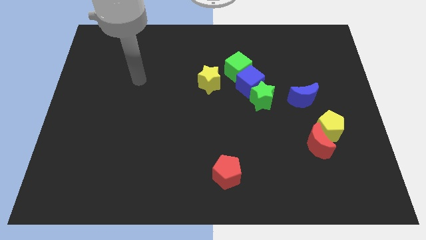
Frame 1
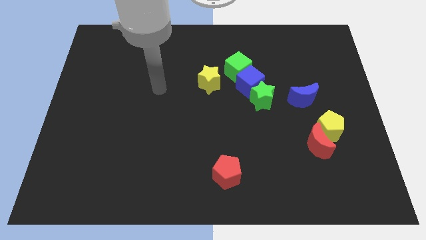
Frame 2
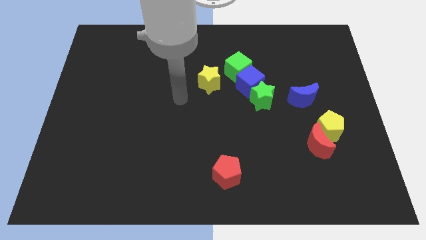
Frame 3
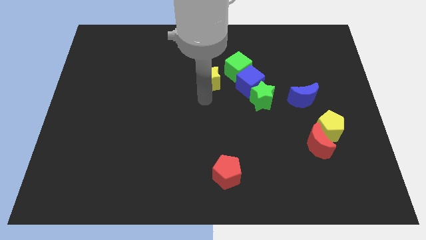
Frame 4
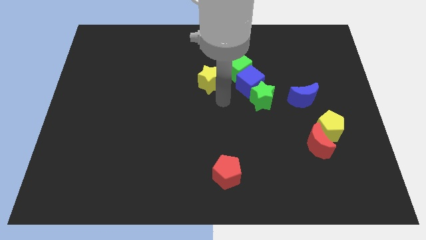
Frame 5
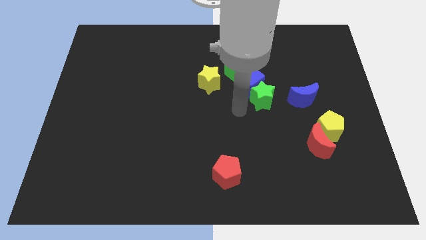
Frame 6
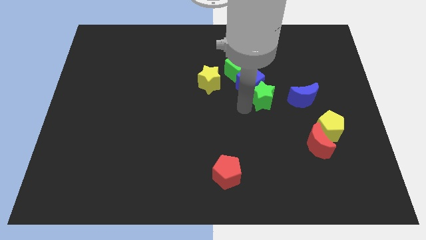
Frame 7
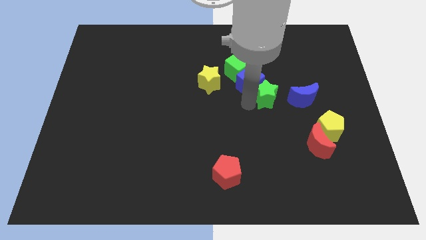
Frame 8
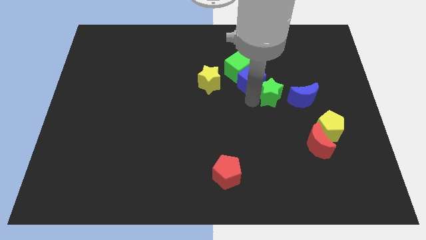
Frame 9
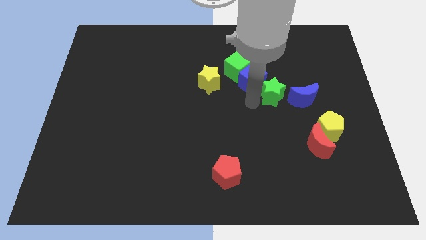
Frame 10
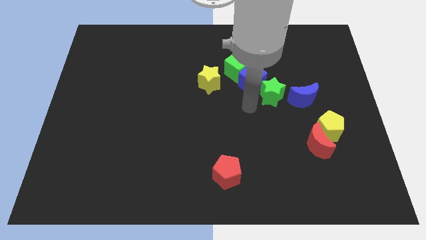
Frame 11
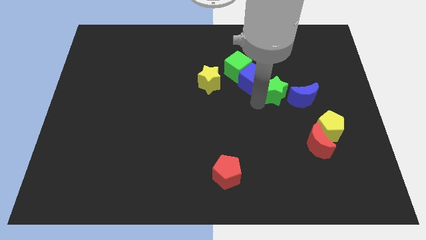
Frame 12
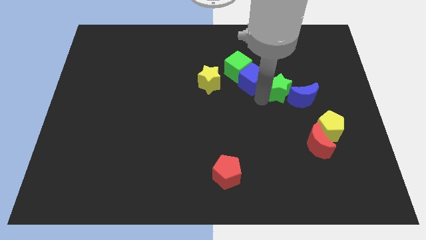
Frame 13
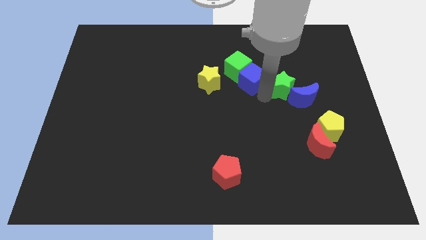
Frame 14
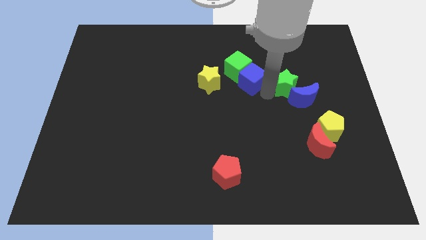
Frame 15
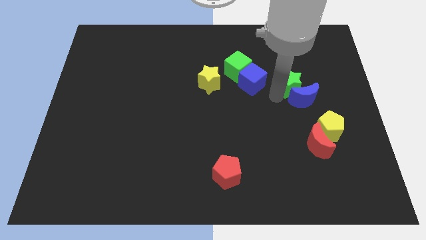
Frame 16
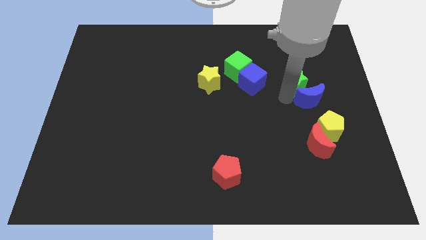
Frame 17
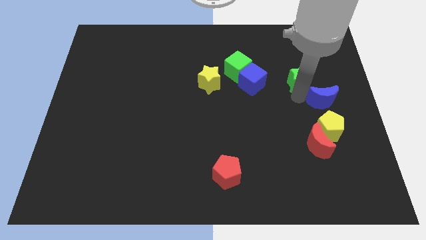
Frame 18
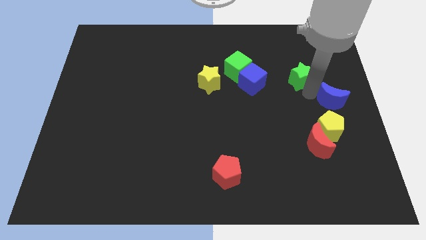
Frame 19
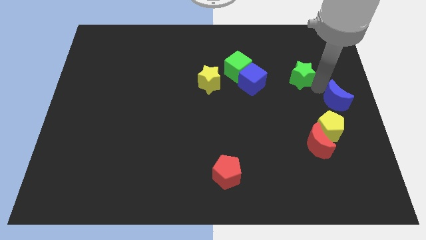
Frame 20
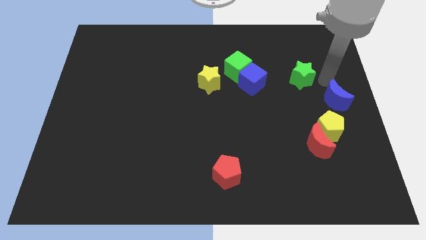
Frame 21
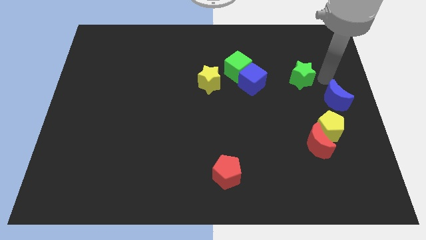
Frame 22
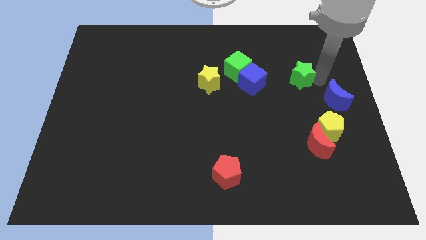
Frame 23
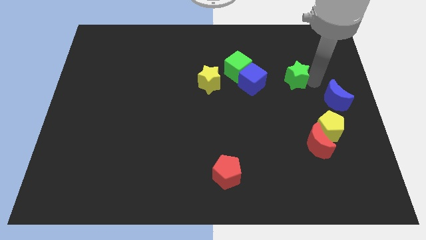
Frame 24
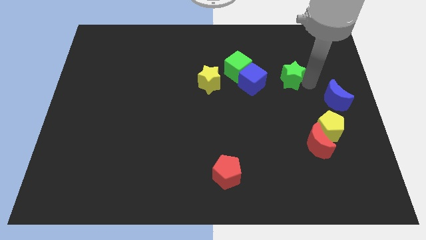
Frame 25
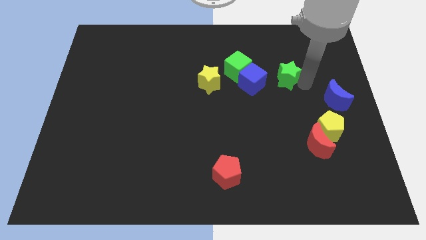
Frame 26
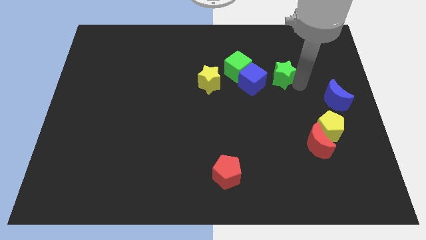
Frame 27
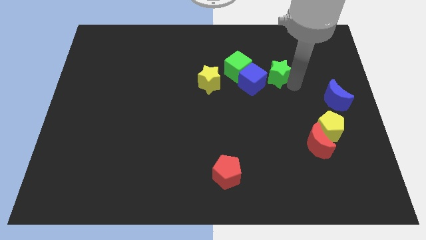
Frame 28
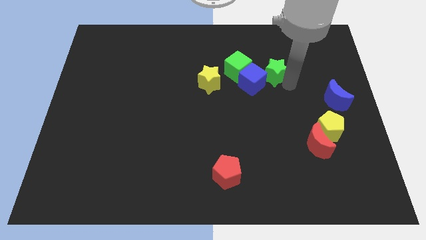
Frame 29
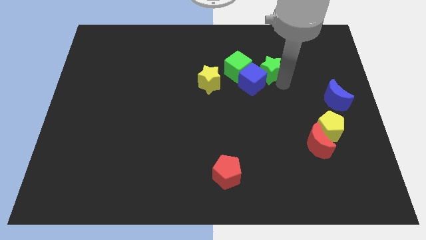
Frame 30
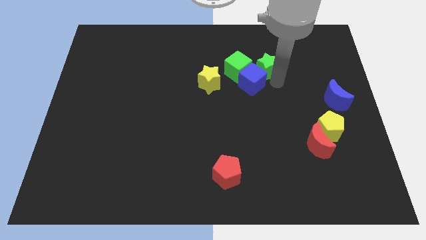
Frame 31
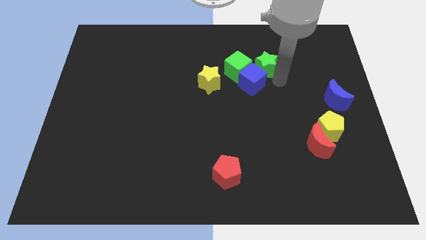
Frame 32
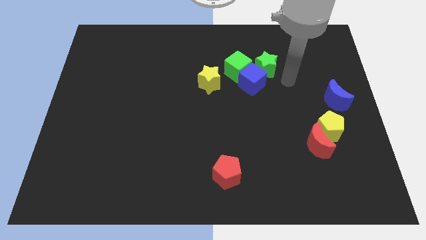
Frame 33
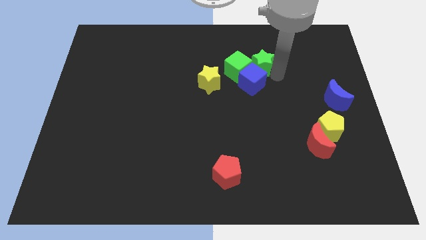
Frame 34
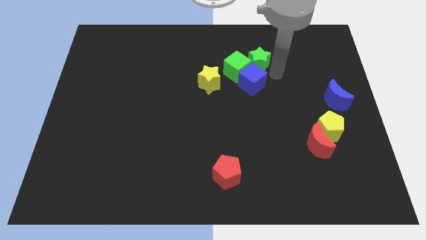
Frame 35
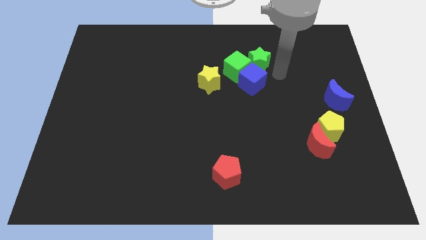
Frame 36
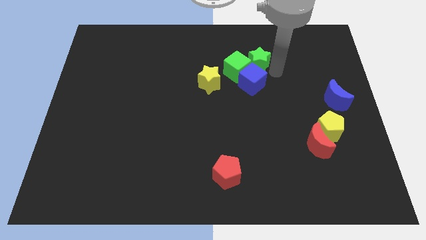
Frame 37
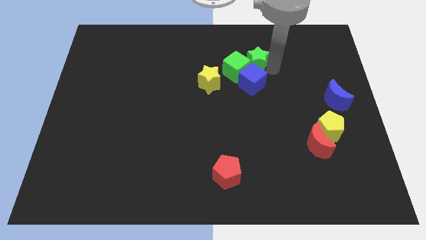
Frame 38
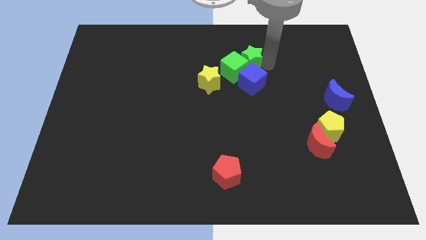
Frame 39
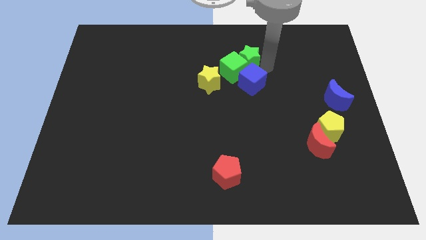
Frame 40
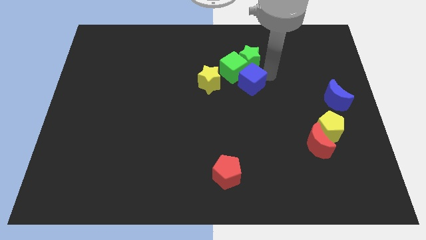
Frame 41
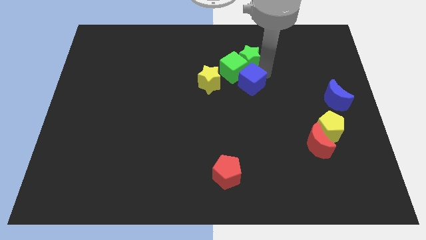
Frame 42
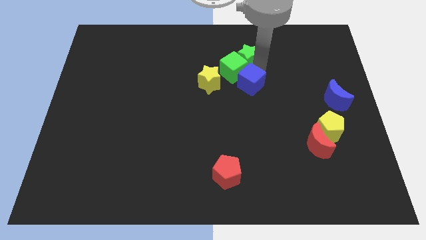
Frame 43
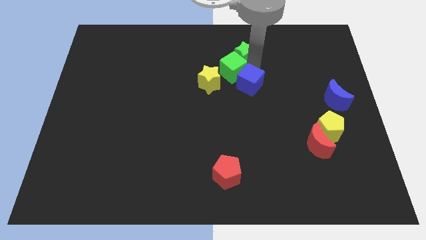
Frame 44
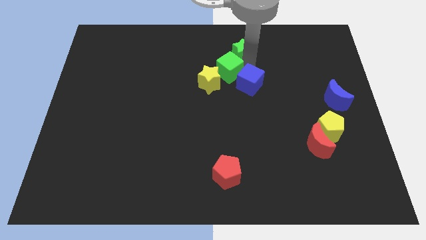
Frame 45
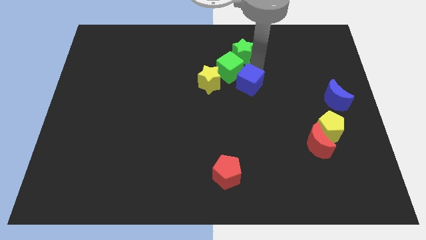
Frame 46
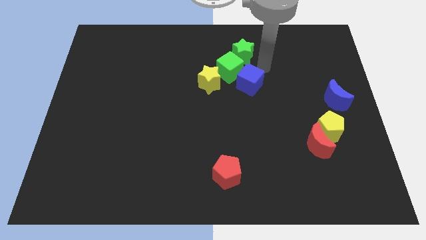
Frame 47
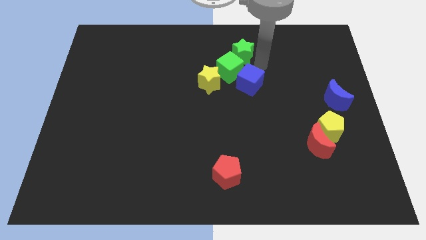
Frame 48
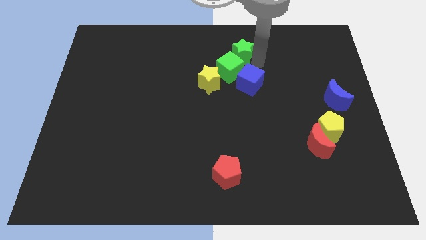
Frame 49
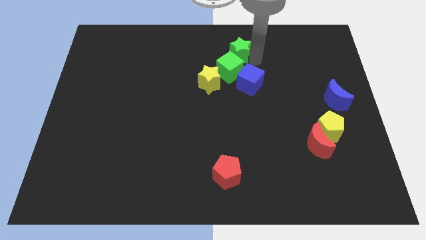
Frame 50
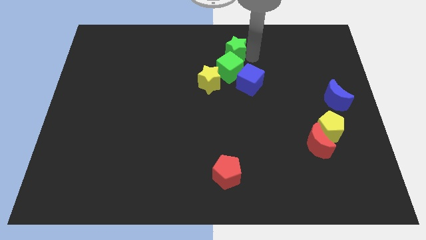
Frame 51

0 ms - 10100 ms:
move the green star to the towards your base

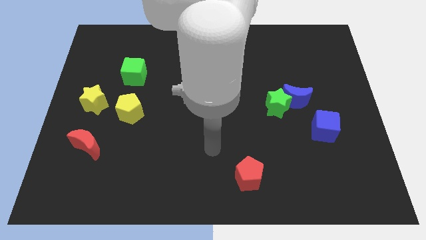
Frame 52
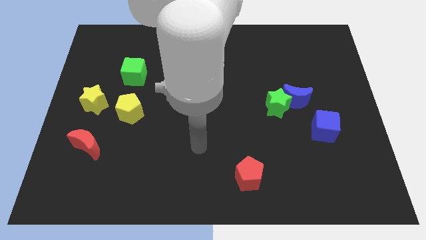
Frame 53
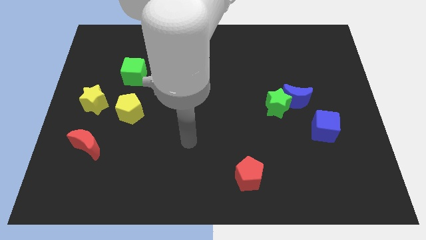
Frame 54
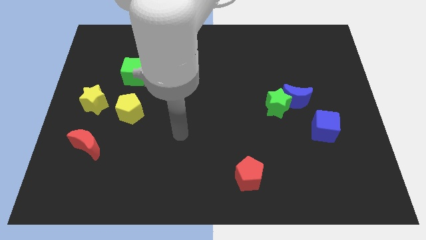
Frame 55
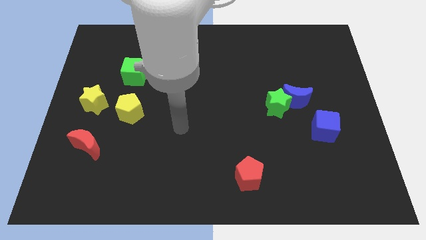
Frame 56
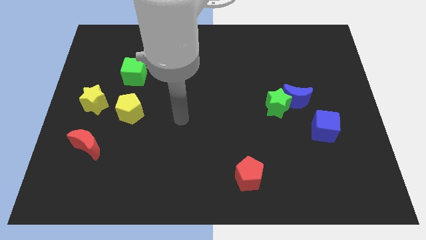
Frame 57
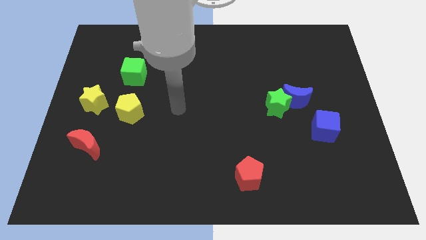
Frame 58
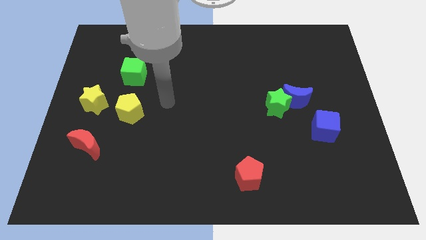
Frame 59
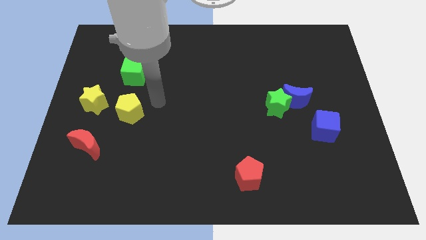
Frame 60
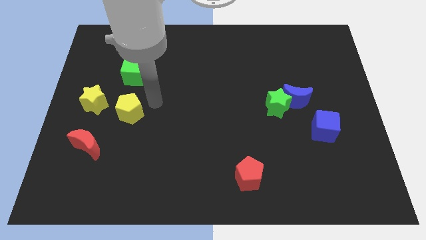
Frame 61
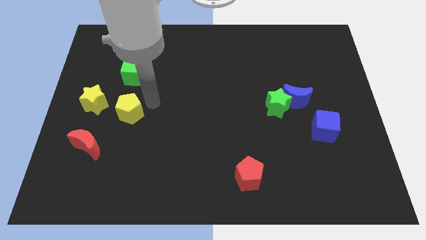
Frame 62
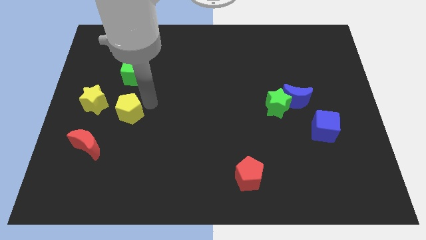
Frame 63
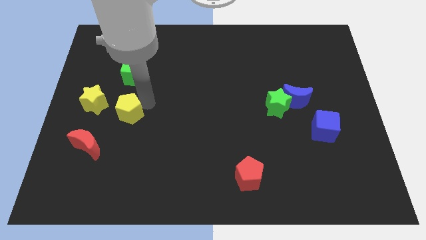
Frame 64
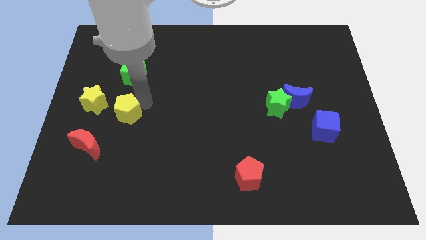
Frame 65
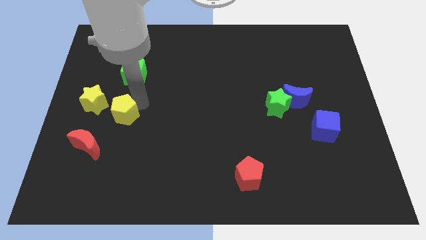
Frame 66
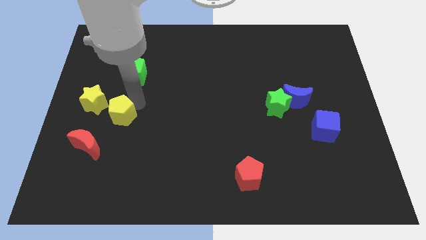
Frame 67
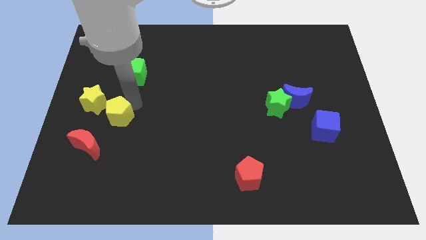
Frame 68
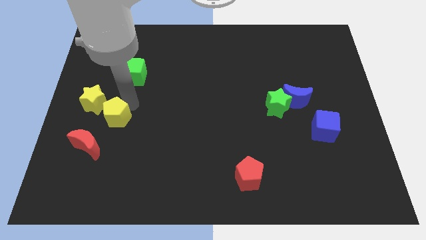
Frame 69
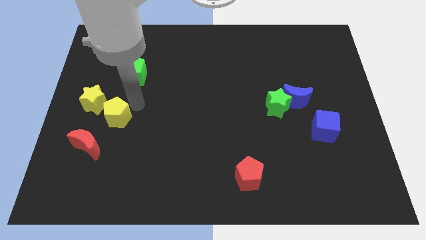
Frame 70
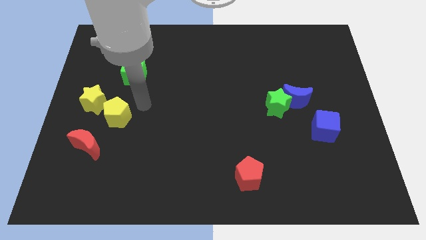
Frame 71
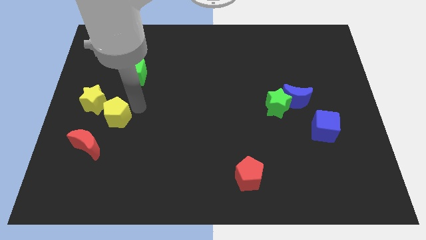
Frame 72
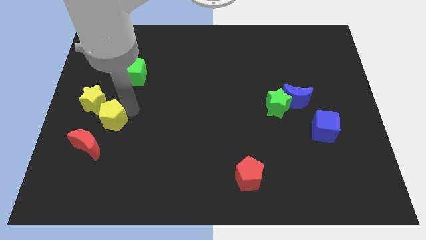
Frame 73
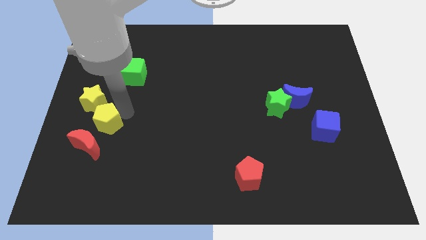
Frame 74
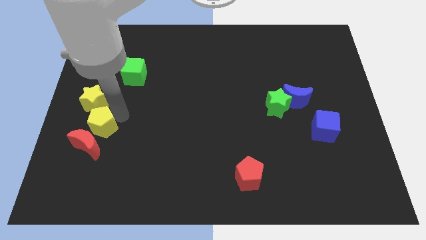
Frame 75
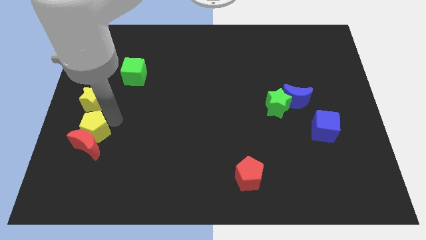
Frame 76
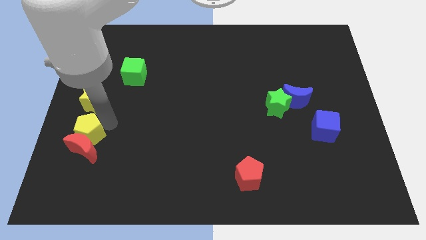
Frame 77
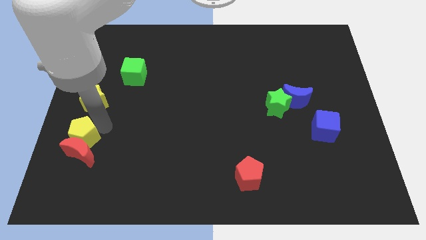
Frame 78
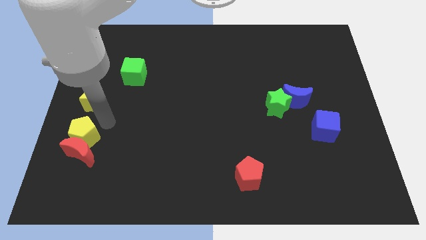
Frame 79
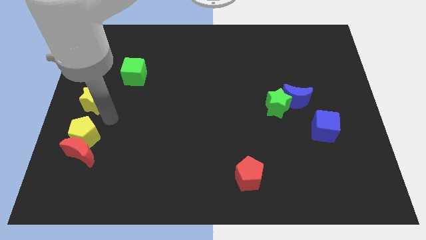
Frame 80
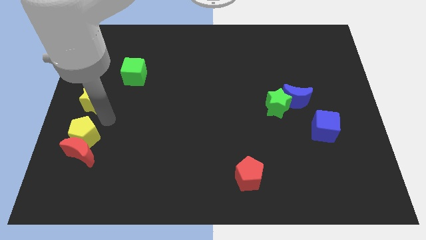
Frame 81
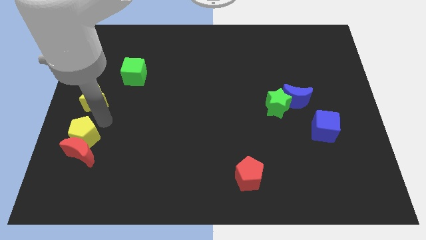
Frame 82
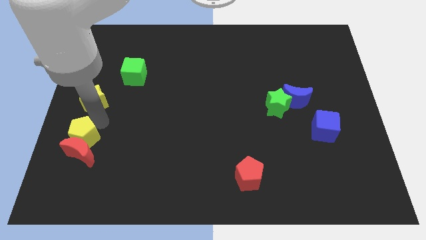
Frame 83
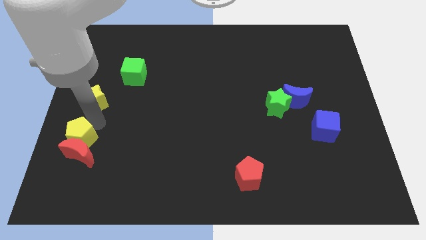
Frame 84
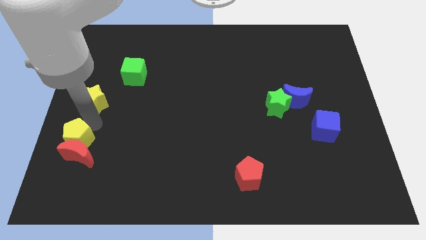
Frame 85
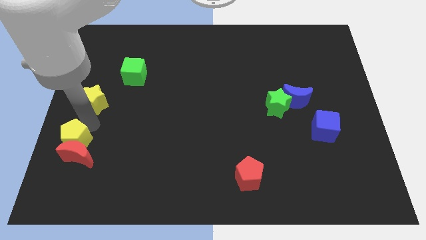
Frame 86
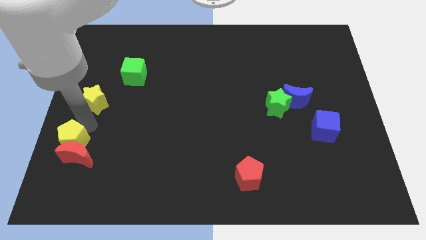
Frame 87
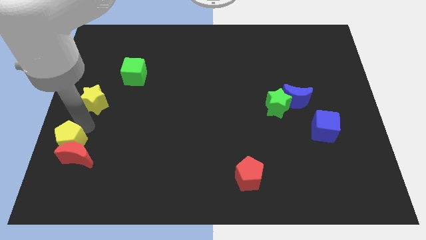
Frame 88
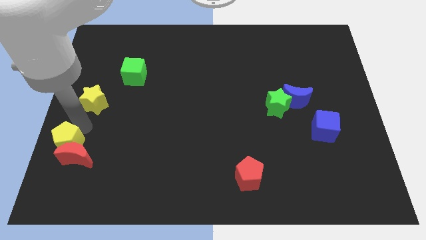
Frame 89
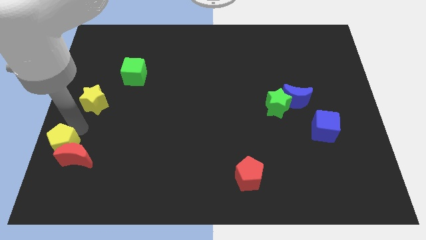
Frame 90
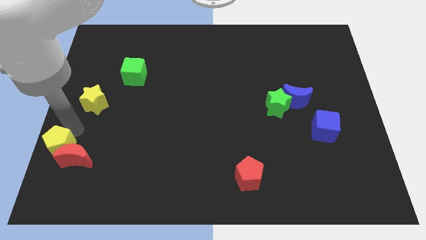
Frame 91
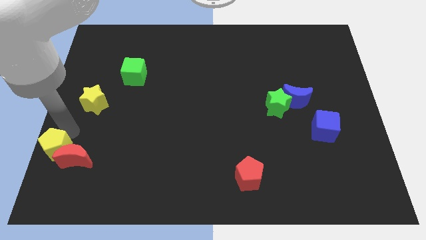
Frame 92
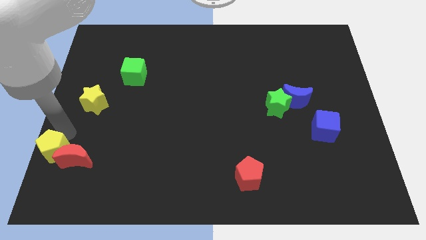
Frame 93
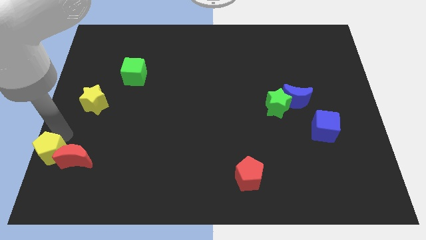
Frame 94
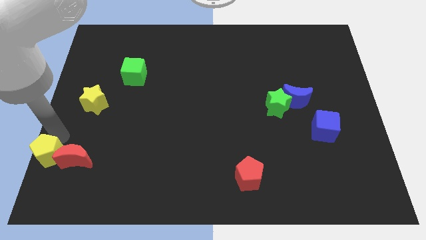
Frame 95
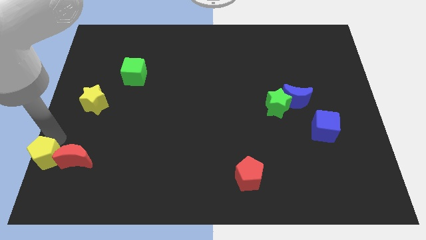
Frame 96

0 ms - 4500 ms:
put the yellow pentagon to the lower left corner
